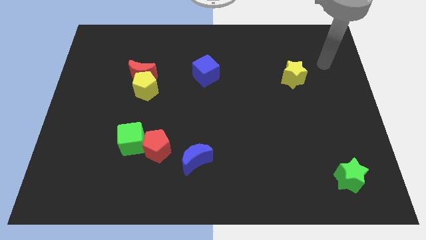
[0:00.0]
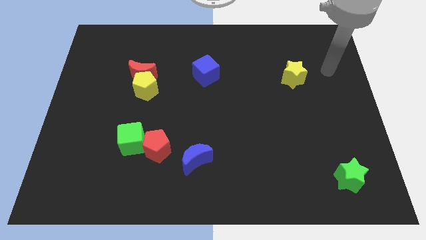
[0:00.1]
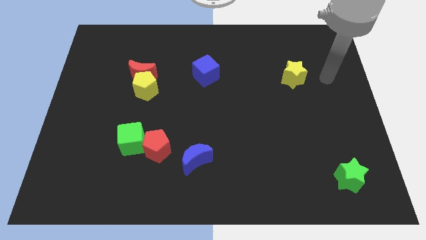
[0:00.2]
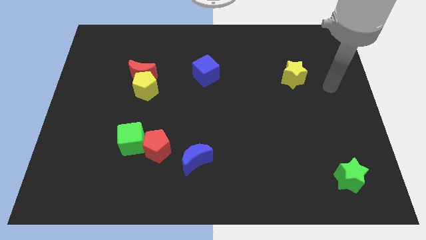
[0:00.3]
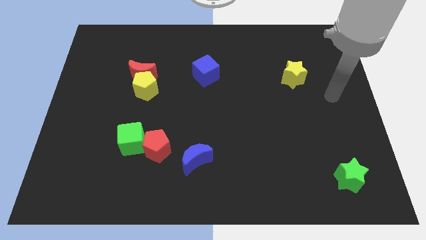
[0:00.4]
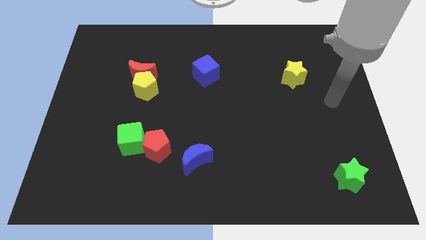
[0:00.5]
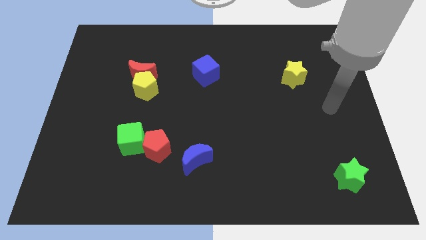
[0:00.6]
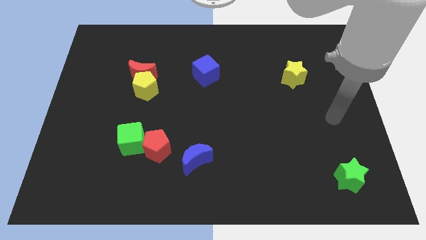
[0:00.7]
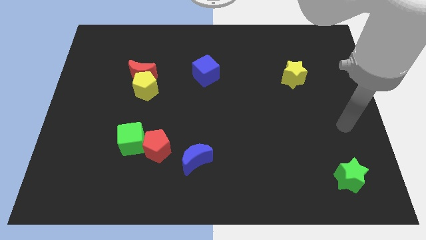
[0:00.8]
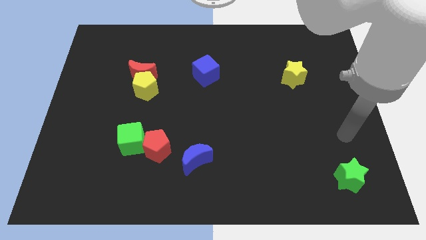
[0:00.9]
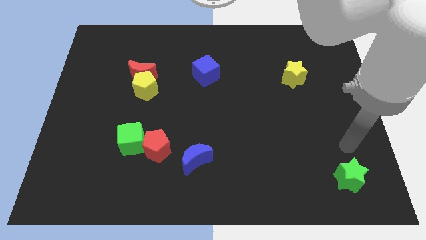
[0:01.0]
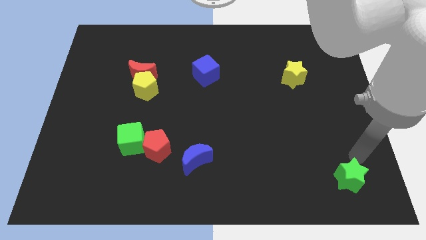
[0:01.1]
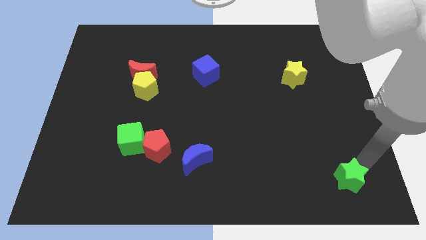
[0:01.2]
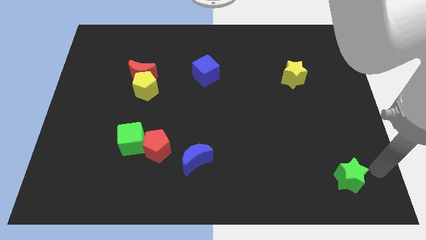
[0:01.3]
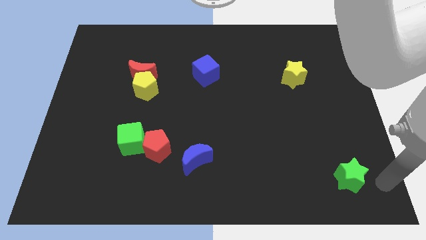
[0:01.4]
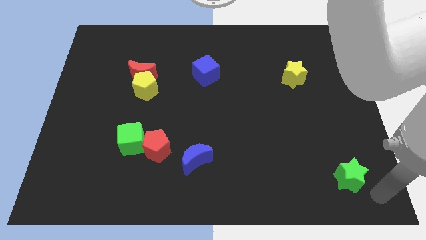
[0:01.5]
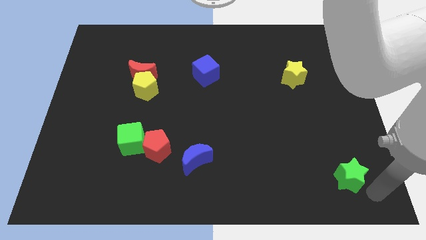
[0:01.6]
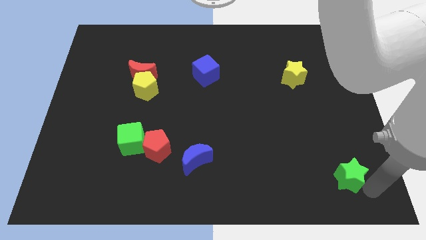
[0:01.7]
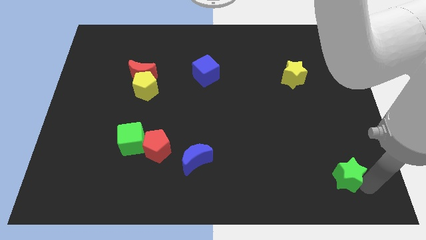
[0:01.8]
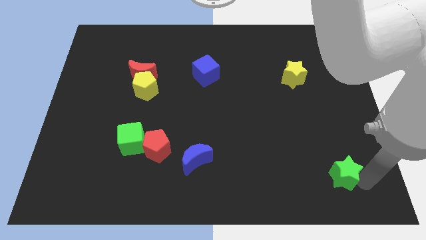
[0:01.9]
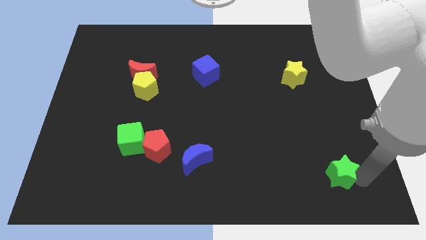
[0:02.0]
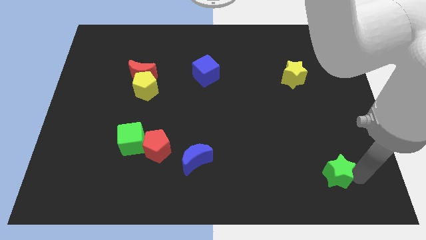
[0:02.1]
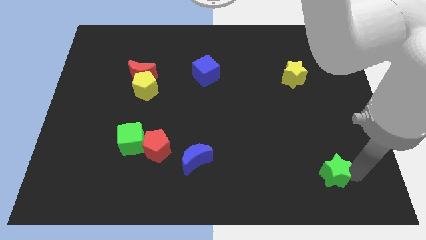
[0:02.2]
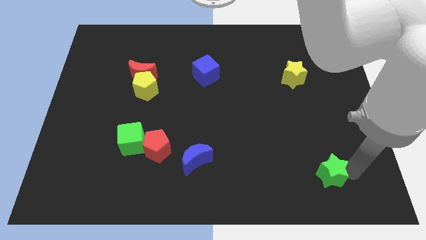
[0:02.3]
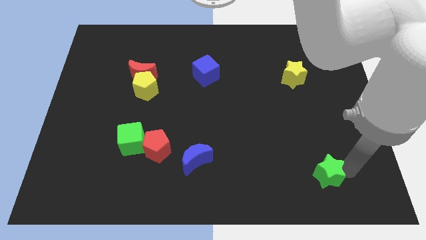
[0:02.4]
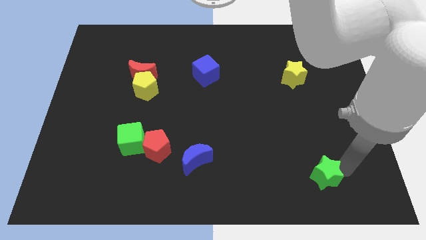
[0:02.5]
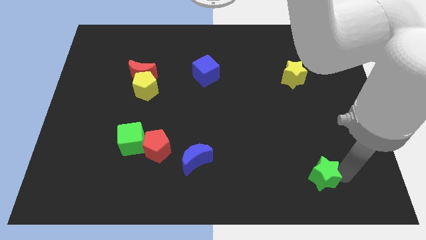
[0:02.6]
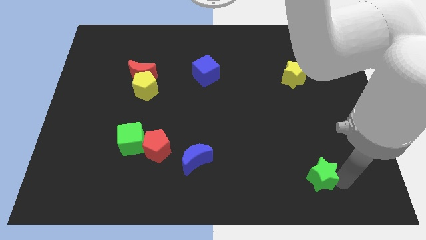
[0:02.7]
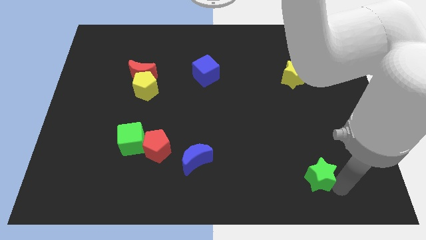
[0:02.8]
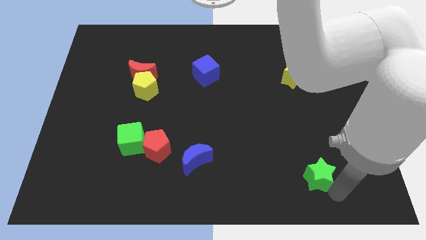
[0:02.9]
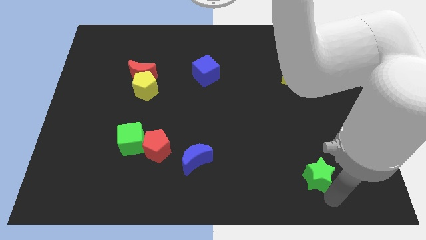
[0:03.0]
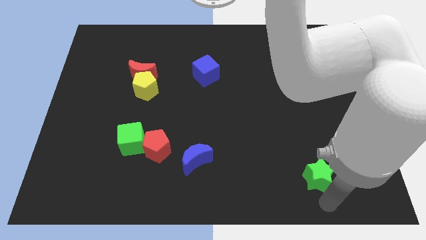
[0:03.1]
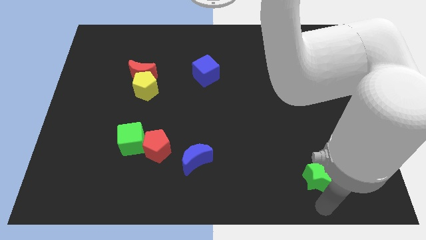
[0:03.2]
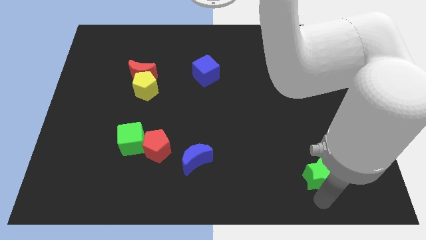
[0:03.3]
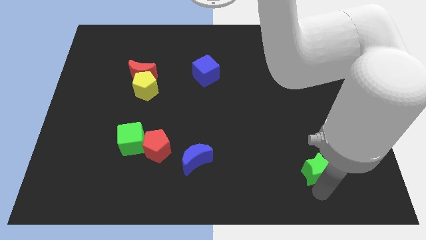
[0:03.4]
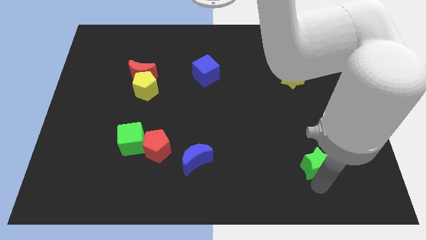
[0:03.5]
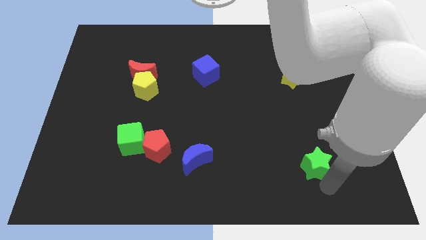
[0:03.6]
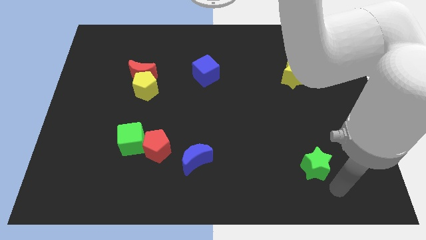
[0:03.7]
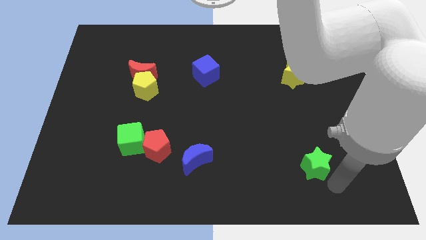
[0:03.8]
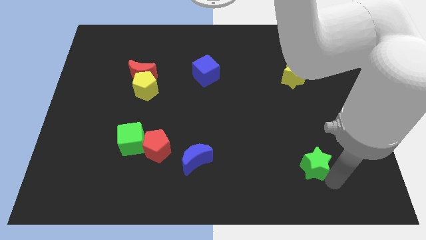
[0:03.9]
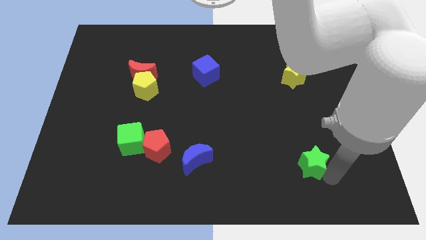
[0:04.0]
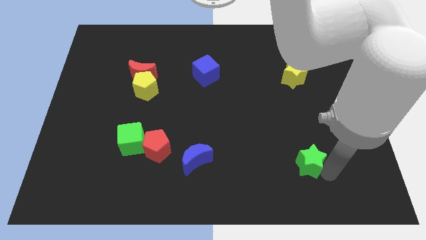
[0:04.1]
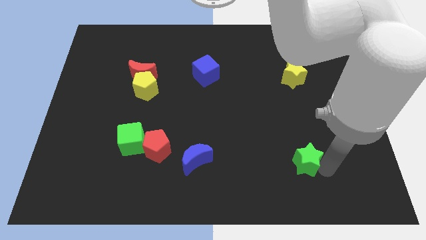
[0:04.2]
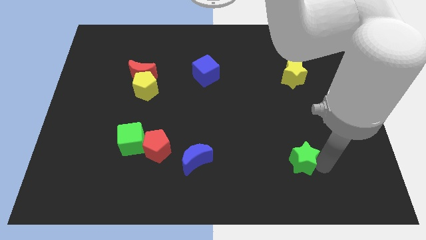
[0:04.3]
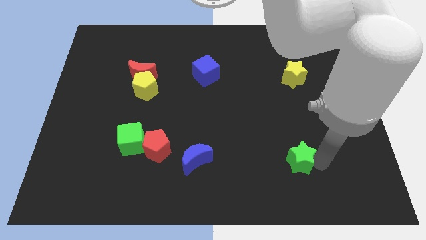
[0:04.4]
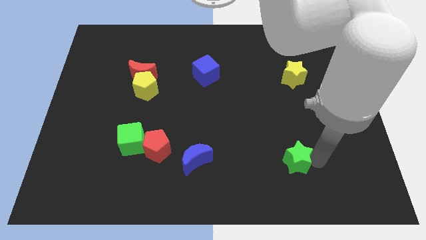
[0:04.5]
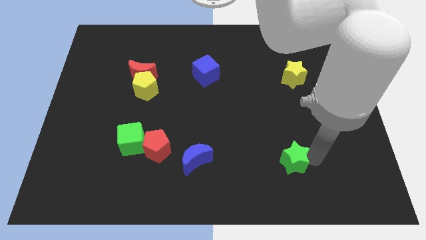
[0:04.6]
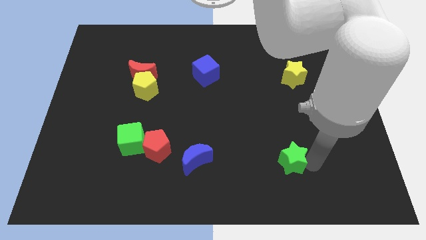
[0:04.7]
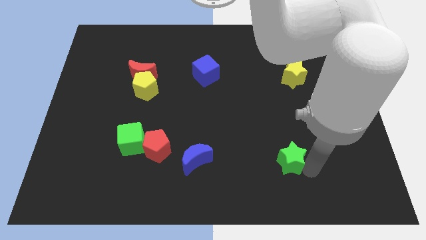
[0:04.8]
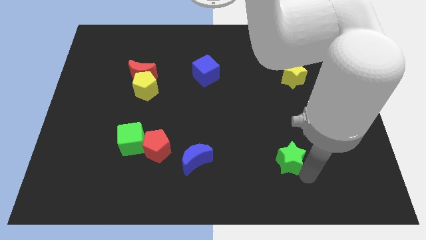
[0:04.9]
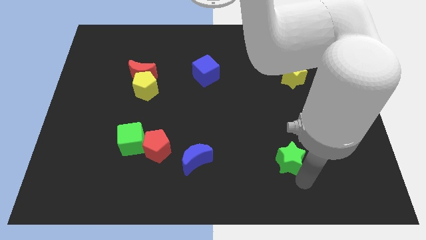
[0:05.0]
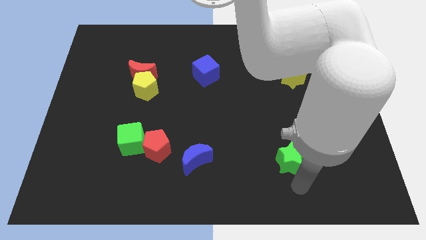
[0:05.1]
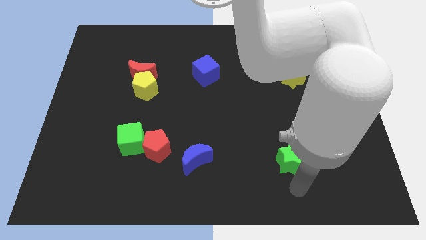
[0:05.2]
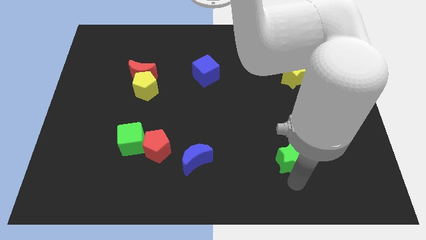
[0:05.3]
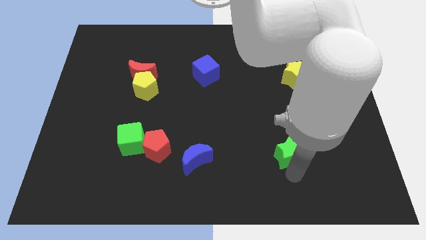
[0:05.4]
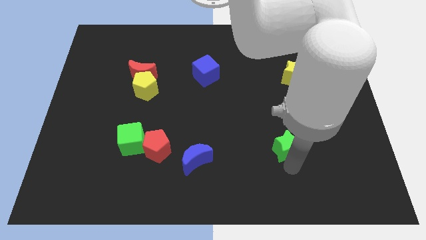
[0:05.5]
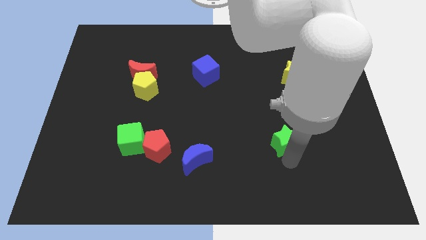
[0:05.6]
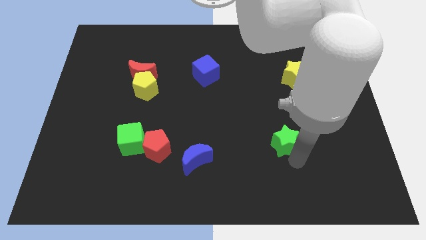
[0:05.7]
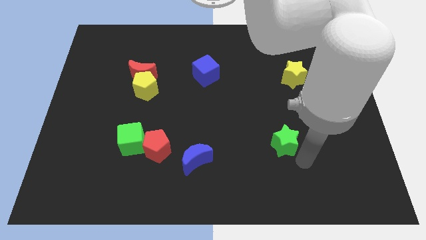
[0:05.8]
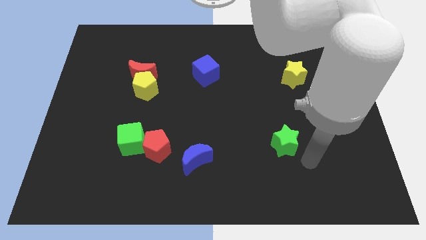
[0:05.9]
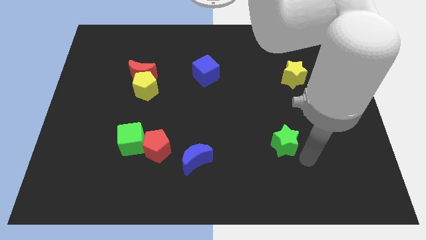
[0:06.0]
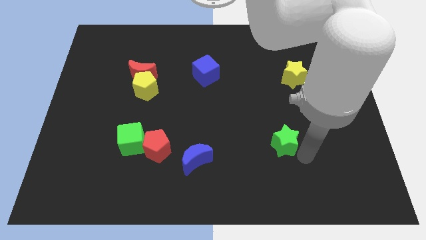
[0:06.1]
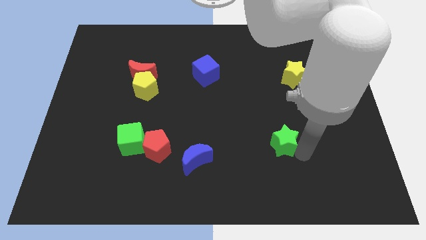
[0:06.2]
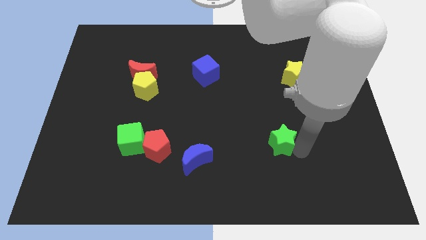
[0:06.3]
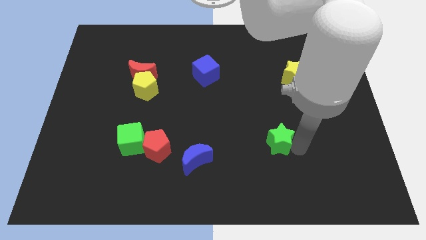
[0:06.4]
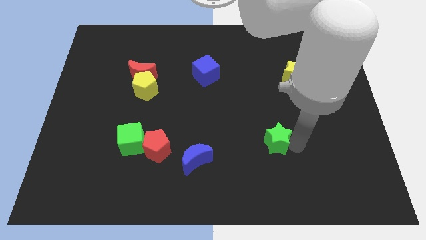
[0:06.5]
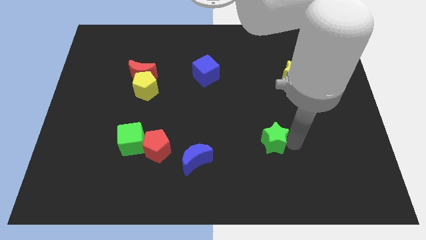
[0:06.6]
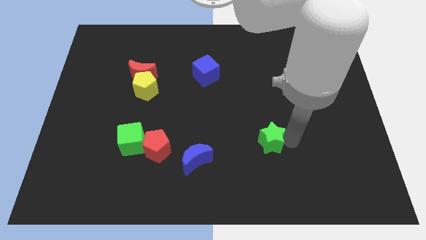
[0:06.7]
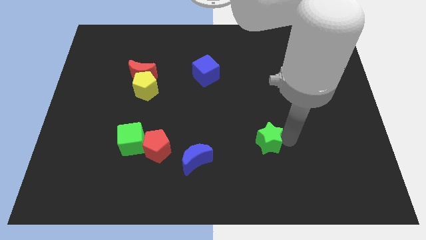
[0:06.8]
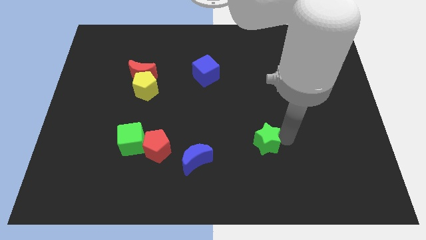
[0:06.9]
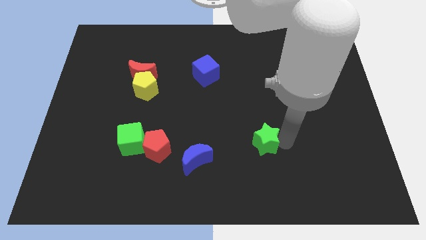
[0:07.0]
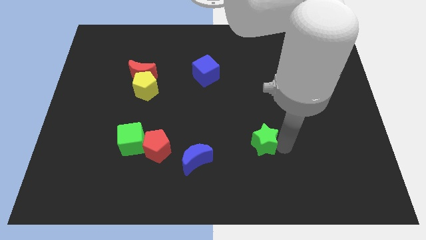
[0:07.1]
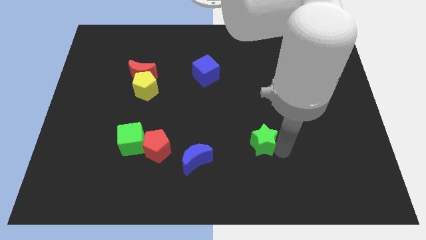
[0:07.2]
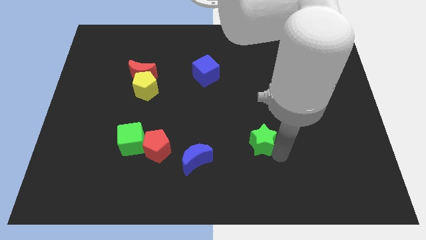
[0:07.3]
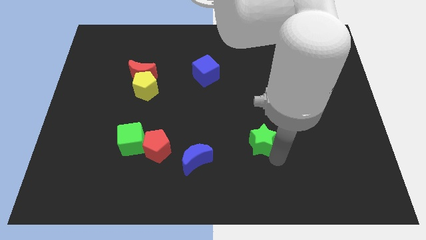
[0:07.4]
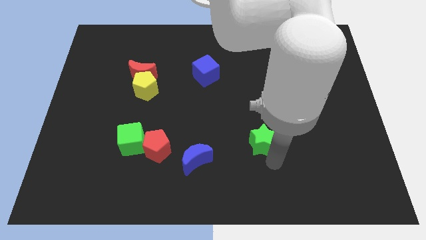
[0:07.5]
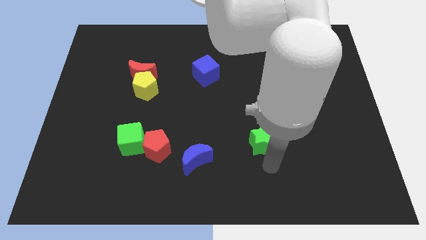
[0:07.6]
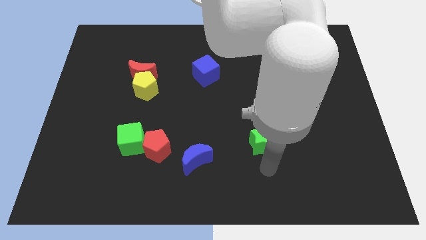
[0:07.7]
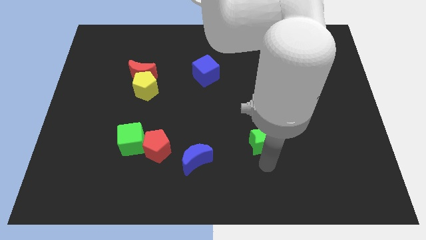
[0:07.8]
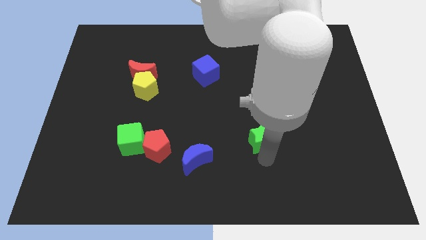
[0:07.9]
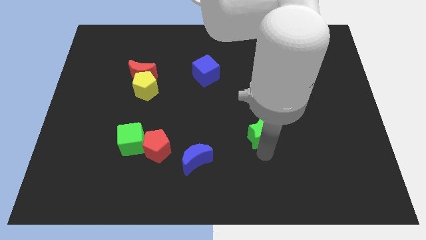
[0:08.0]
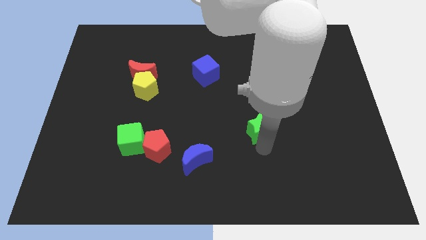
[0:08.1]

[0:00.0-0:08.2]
slide the green star diagonally upwards and left
